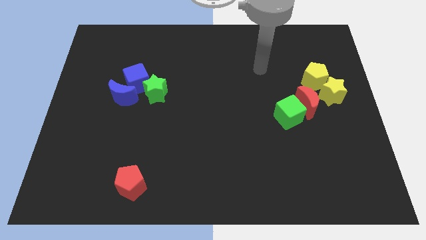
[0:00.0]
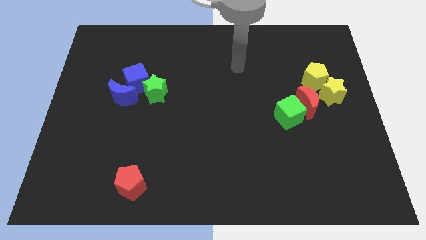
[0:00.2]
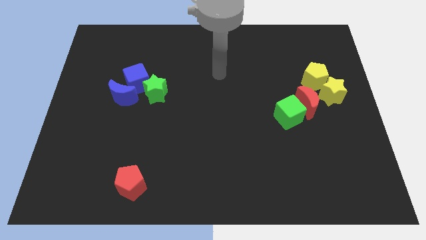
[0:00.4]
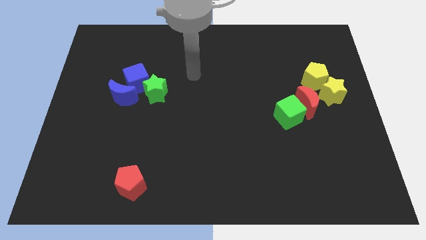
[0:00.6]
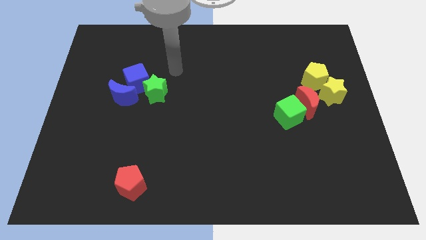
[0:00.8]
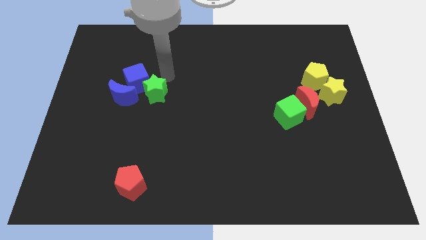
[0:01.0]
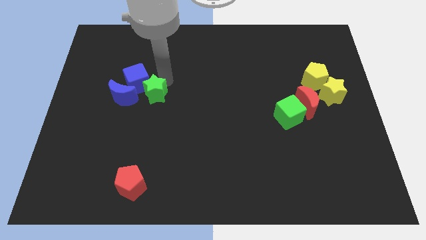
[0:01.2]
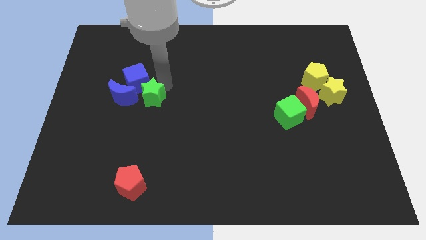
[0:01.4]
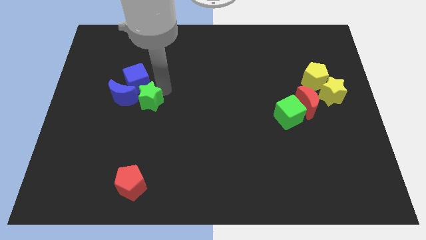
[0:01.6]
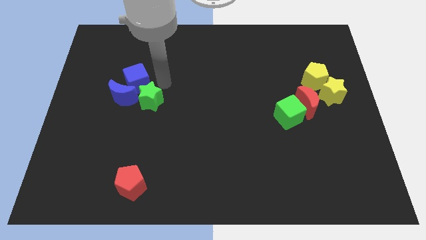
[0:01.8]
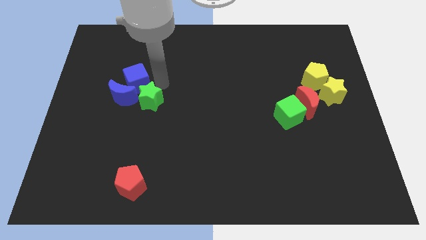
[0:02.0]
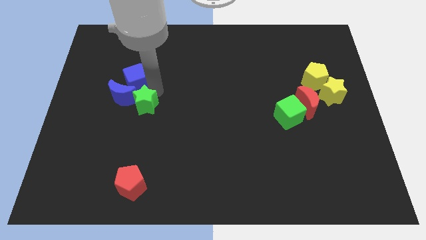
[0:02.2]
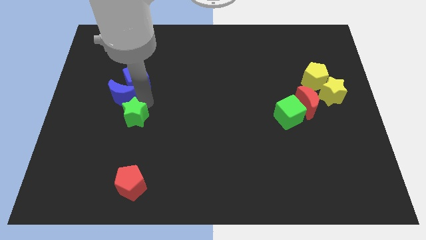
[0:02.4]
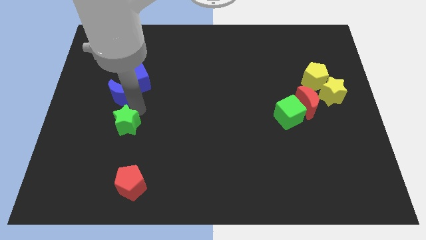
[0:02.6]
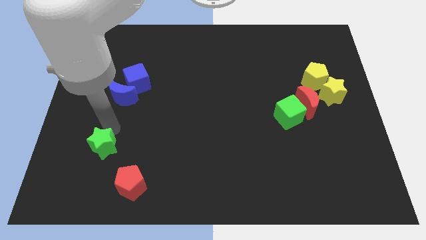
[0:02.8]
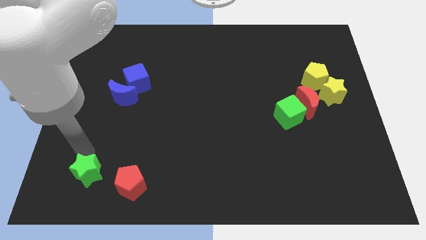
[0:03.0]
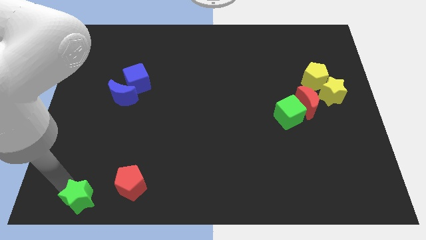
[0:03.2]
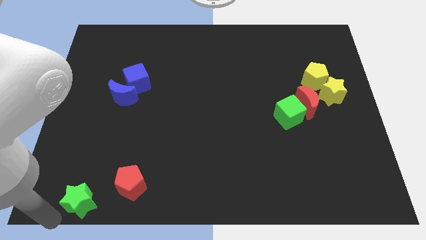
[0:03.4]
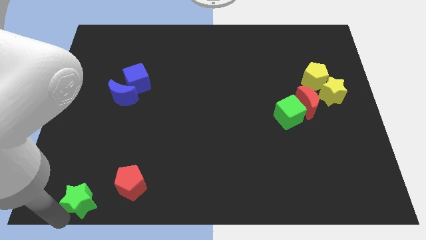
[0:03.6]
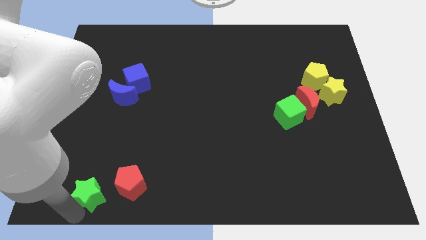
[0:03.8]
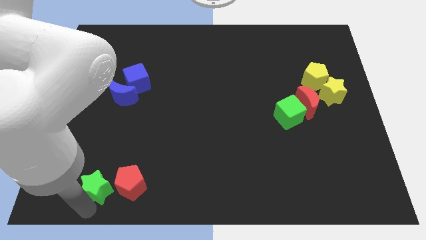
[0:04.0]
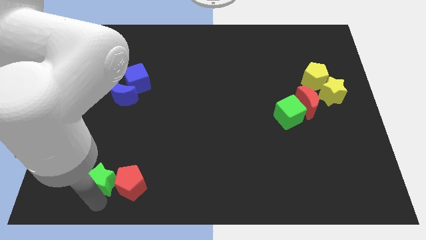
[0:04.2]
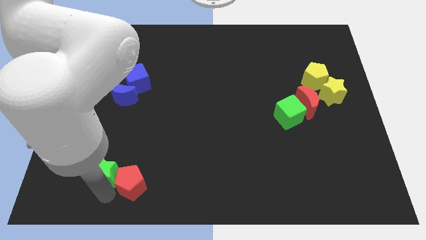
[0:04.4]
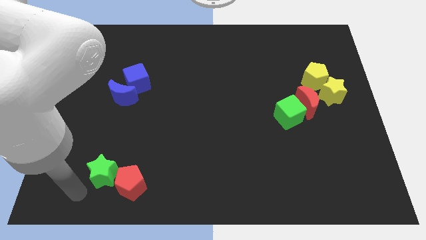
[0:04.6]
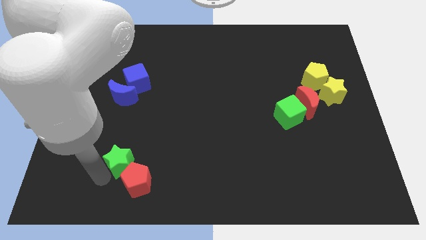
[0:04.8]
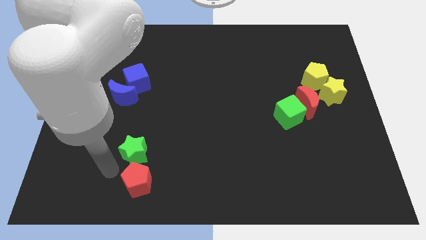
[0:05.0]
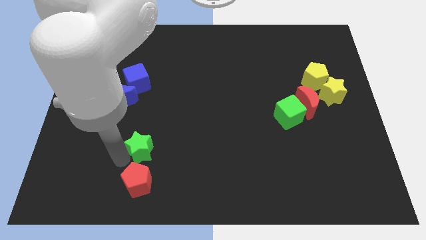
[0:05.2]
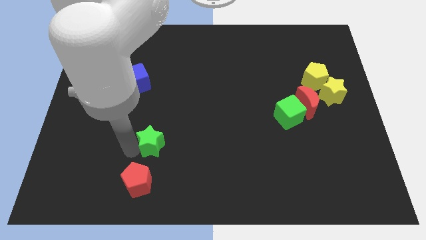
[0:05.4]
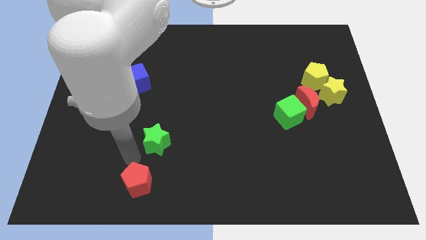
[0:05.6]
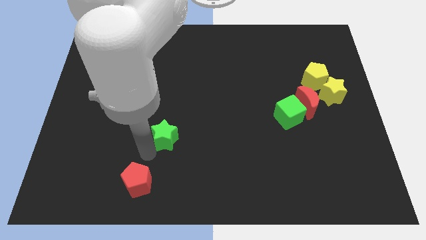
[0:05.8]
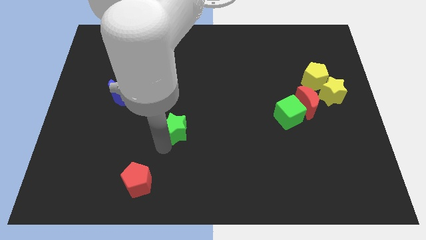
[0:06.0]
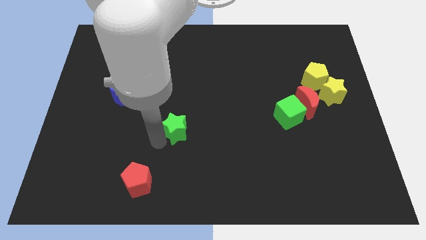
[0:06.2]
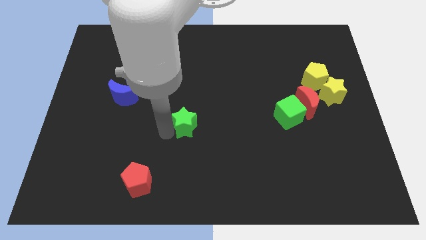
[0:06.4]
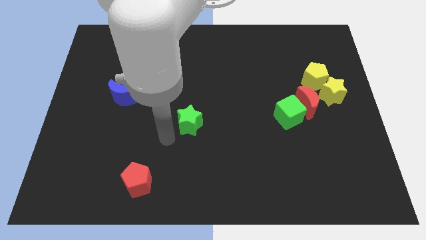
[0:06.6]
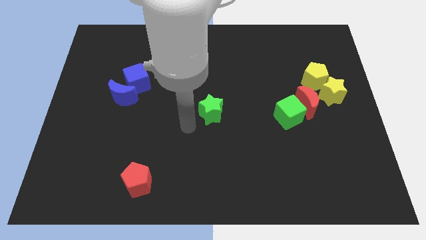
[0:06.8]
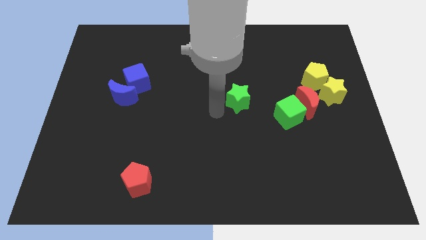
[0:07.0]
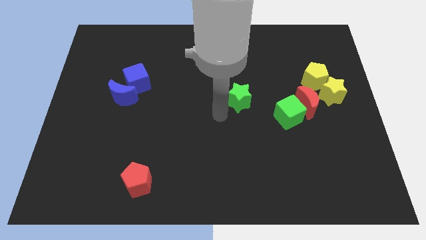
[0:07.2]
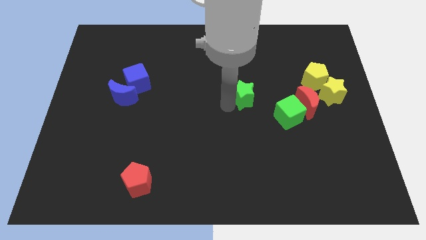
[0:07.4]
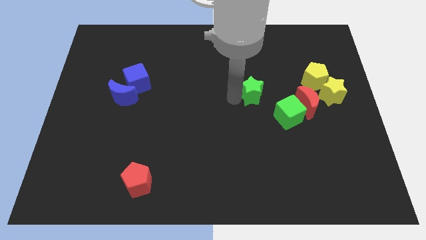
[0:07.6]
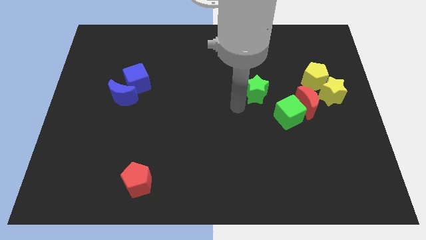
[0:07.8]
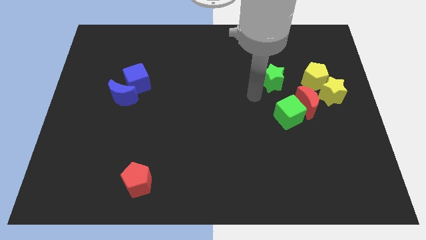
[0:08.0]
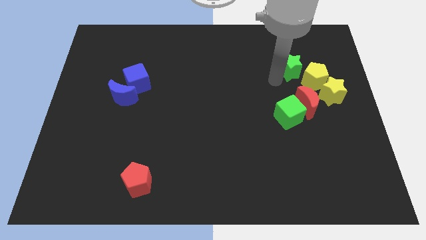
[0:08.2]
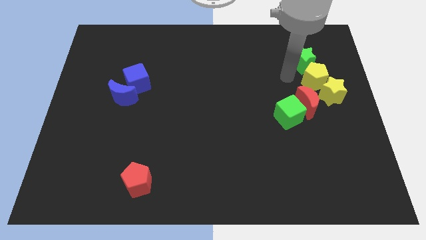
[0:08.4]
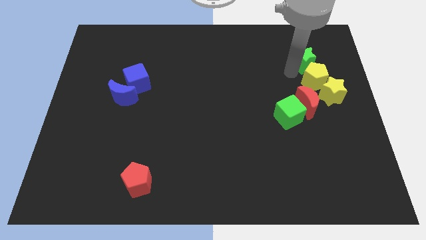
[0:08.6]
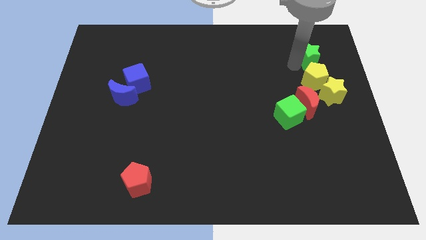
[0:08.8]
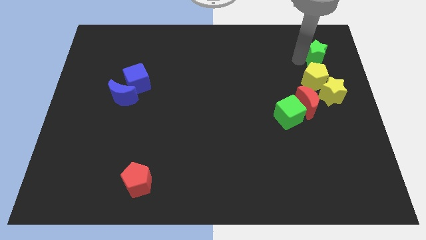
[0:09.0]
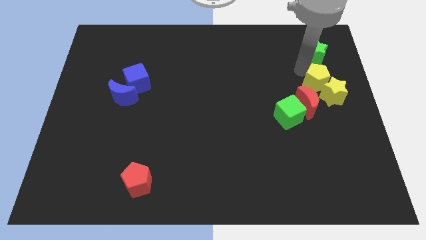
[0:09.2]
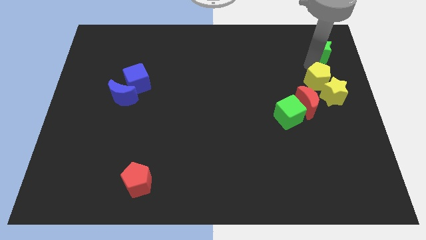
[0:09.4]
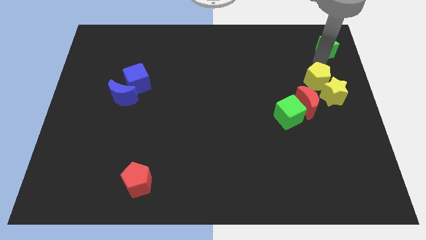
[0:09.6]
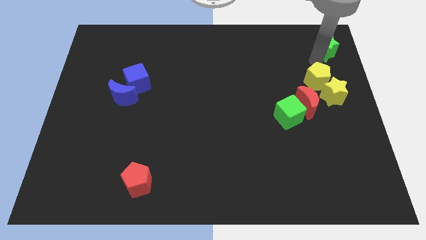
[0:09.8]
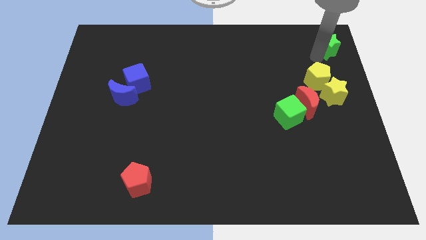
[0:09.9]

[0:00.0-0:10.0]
put the green star to the top right of the board

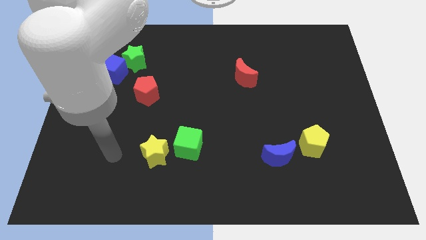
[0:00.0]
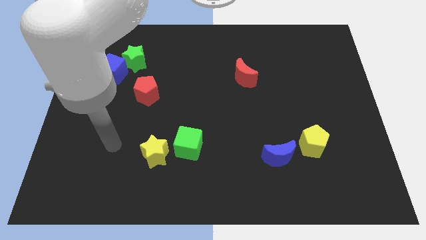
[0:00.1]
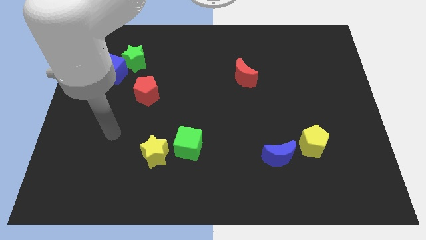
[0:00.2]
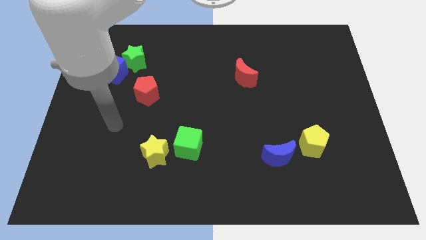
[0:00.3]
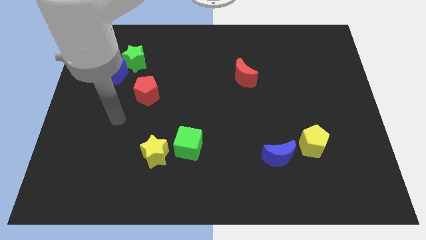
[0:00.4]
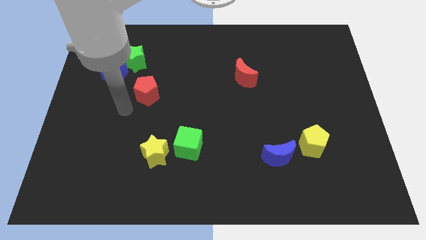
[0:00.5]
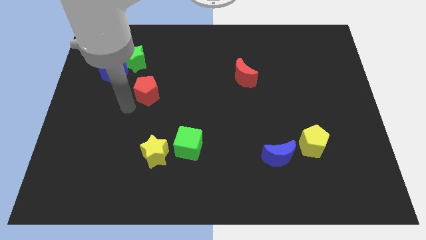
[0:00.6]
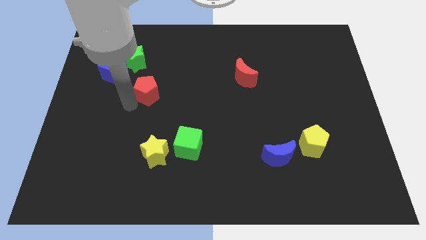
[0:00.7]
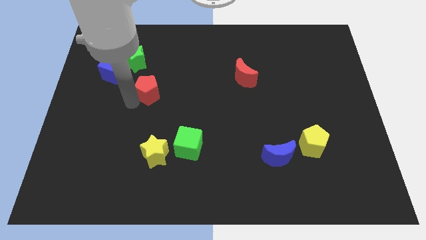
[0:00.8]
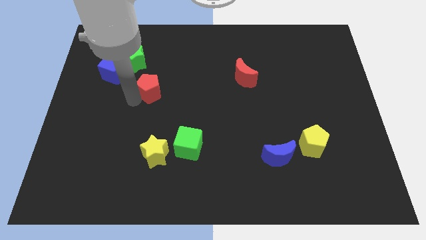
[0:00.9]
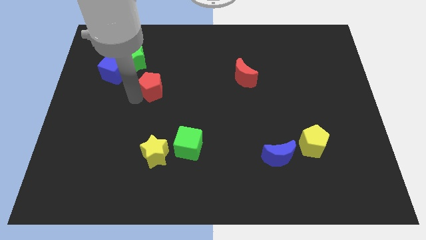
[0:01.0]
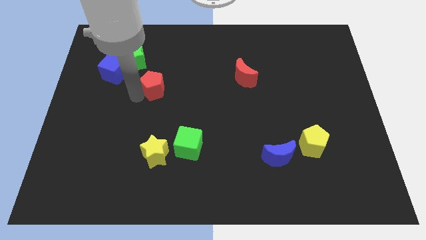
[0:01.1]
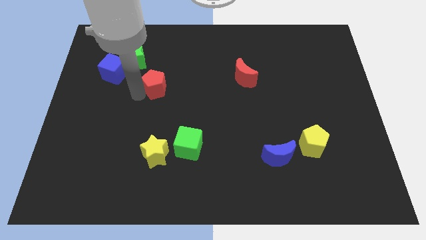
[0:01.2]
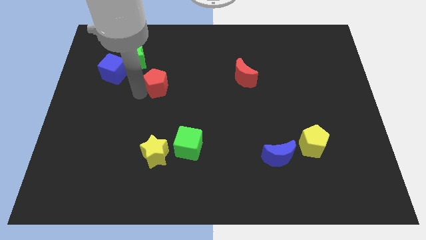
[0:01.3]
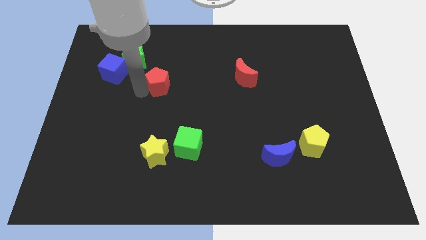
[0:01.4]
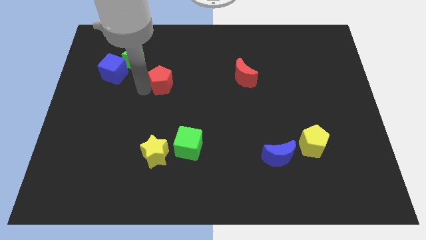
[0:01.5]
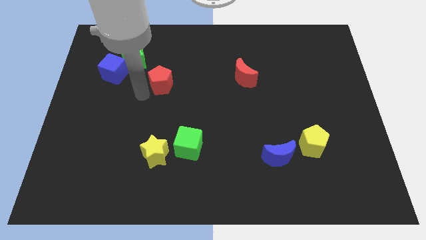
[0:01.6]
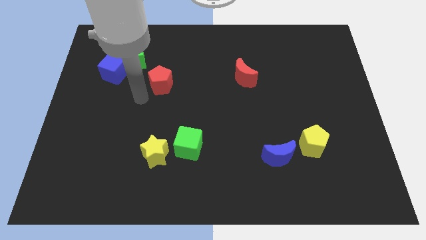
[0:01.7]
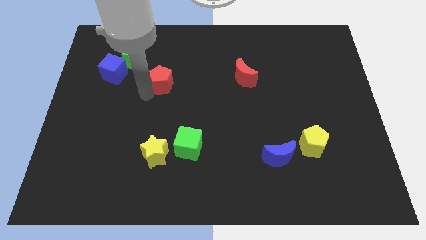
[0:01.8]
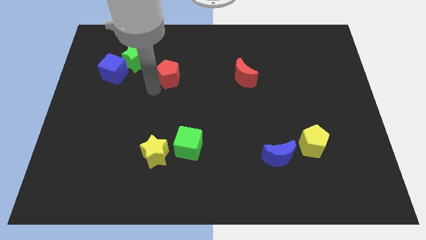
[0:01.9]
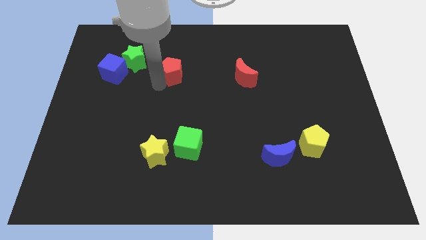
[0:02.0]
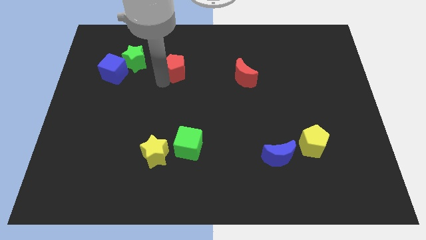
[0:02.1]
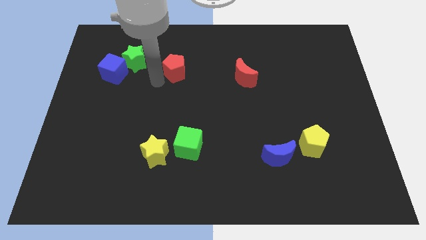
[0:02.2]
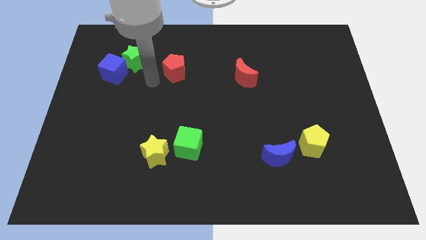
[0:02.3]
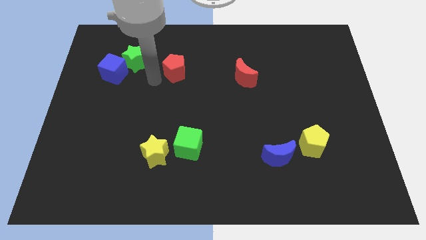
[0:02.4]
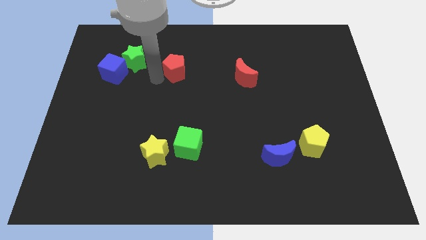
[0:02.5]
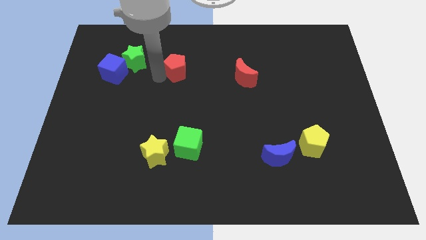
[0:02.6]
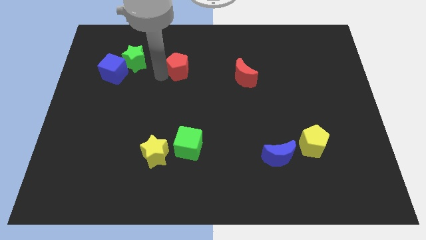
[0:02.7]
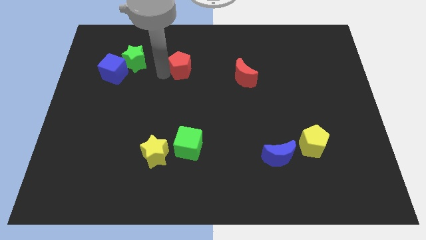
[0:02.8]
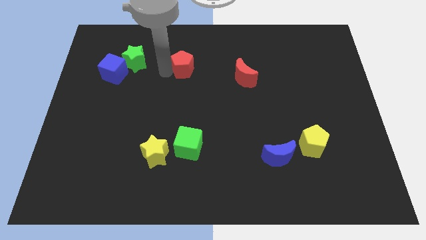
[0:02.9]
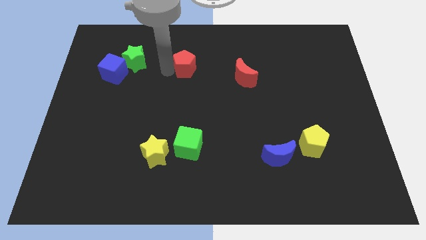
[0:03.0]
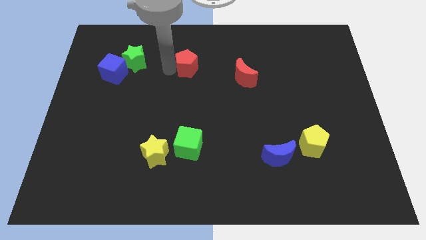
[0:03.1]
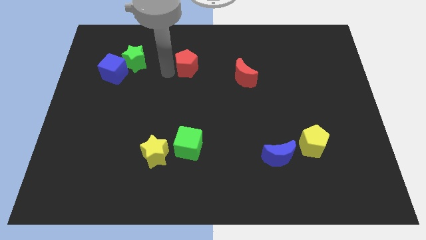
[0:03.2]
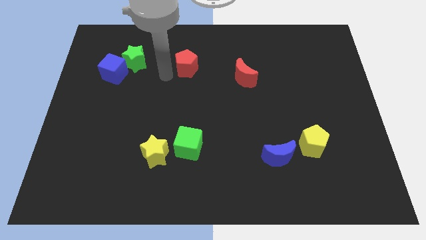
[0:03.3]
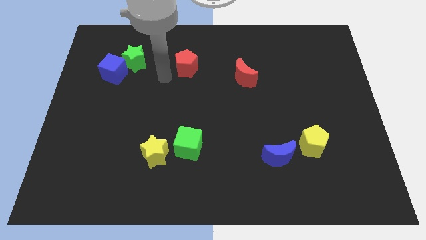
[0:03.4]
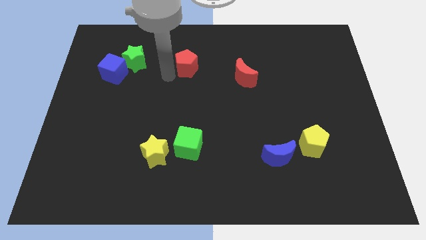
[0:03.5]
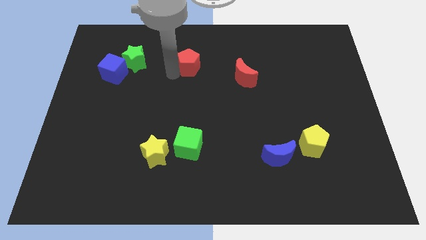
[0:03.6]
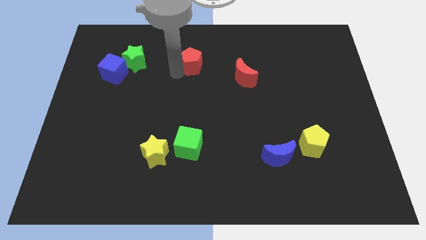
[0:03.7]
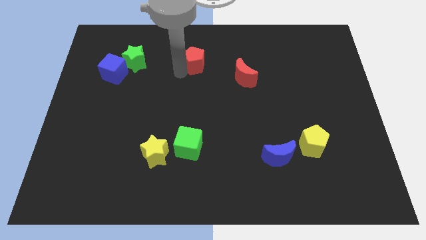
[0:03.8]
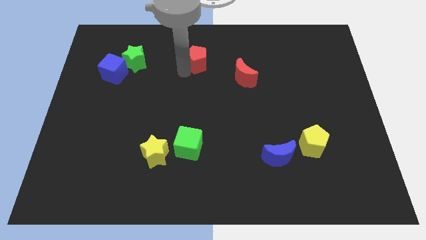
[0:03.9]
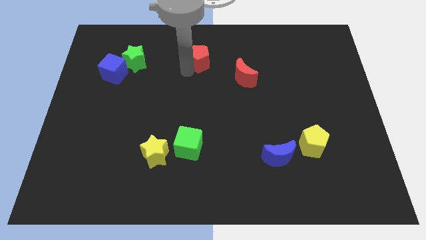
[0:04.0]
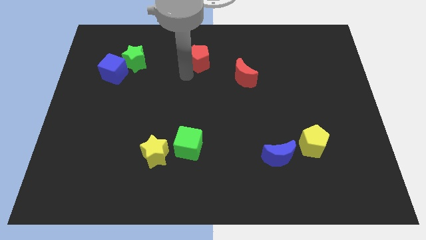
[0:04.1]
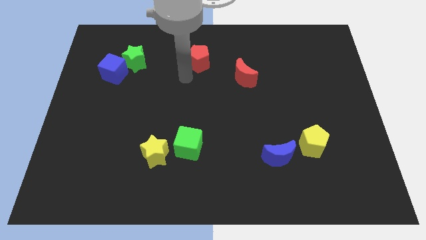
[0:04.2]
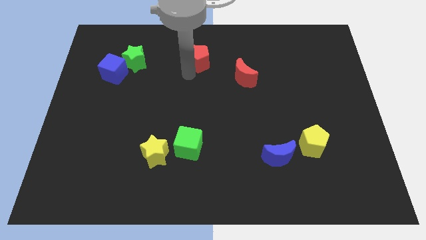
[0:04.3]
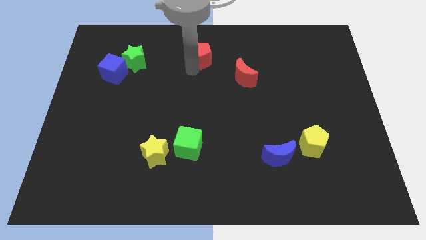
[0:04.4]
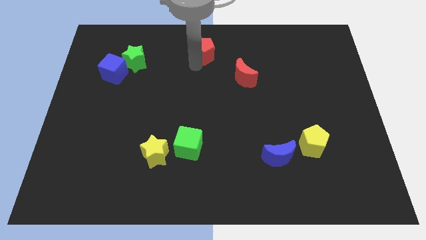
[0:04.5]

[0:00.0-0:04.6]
push the red pentagon to the top side
